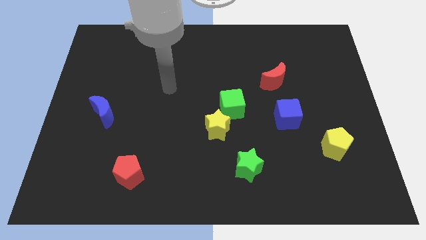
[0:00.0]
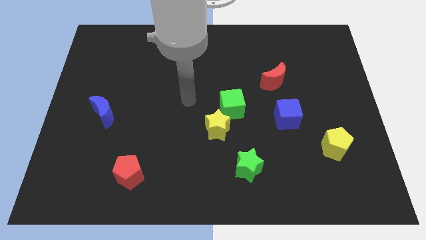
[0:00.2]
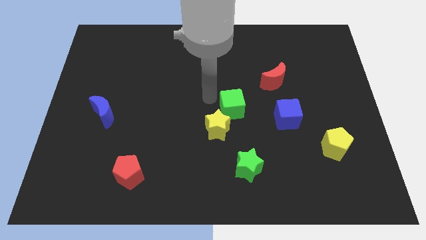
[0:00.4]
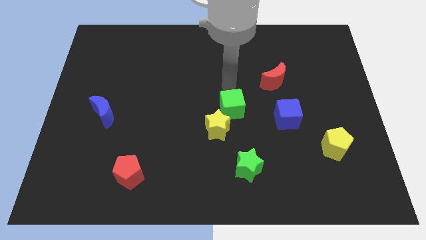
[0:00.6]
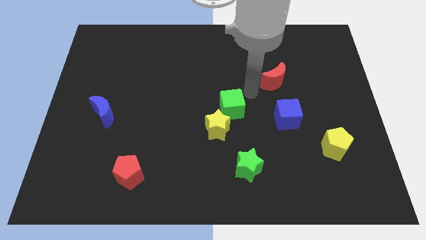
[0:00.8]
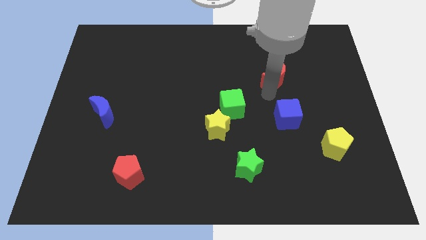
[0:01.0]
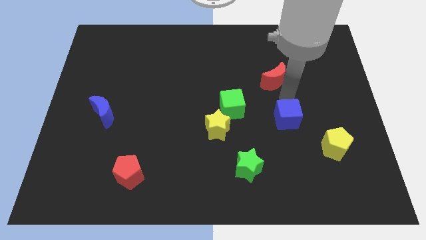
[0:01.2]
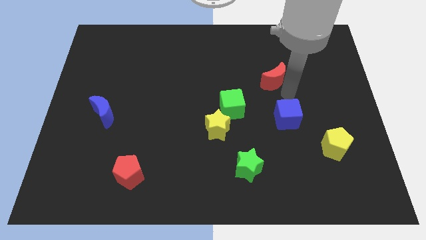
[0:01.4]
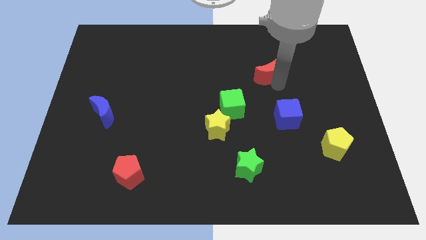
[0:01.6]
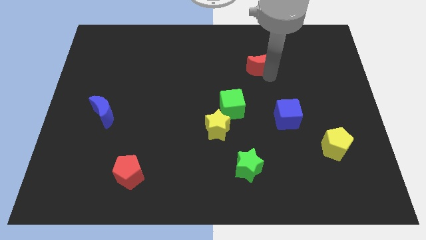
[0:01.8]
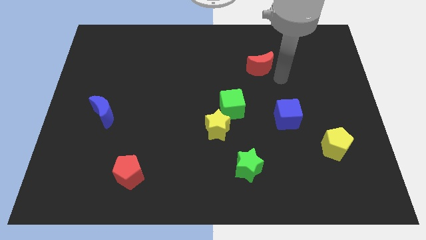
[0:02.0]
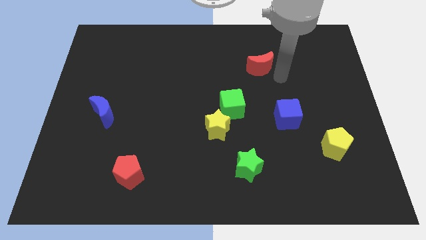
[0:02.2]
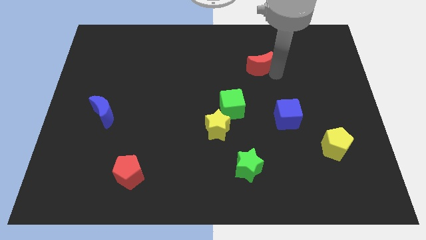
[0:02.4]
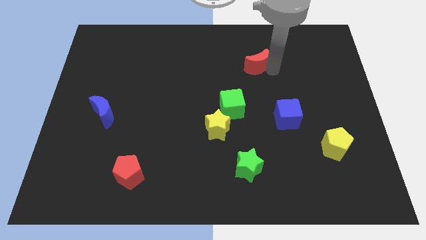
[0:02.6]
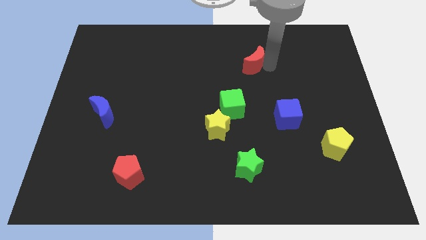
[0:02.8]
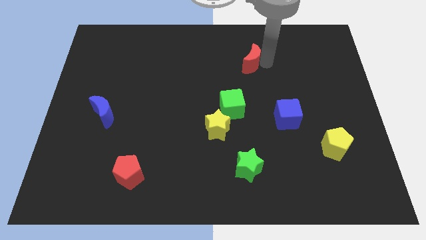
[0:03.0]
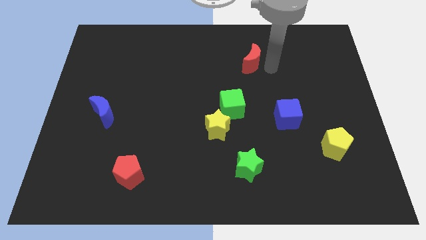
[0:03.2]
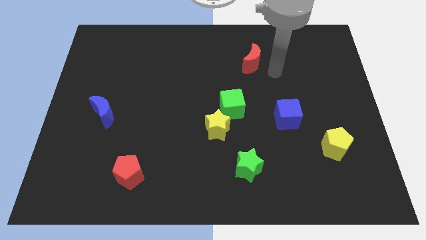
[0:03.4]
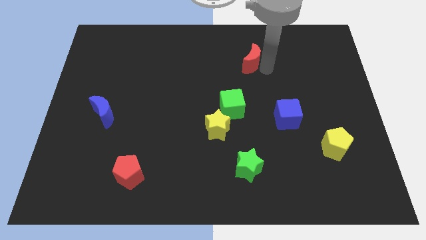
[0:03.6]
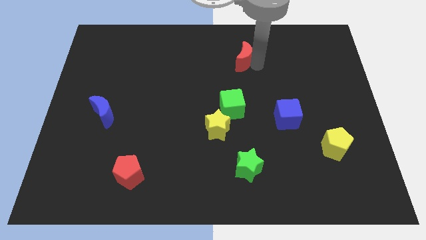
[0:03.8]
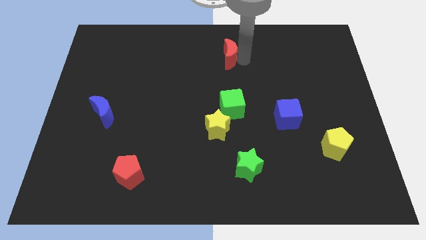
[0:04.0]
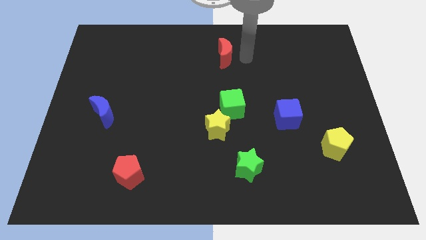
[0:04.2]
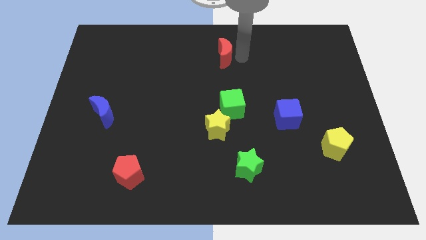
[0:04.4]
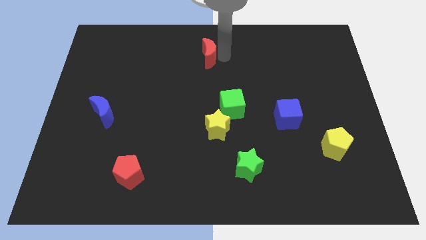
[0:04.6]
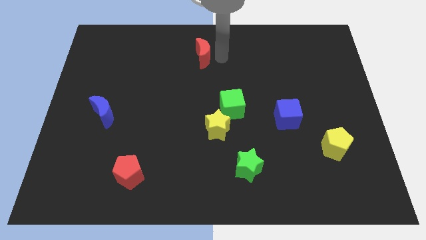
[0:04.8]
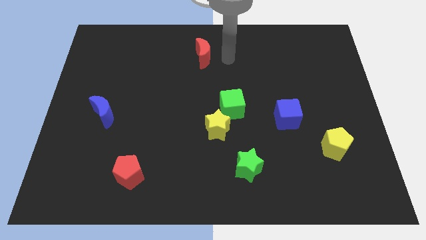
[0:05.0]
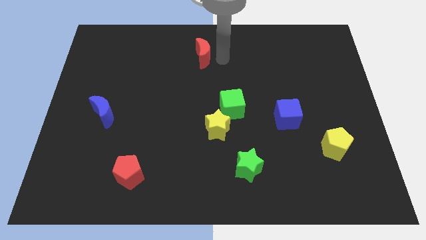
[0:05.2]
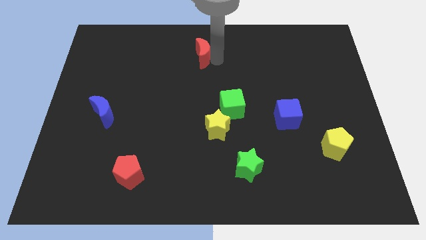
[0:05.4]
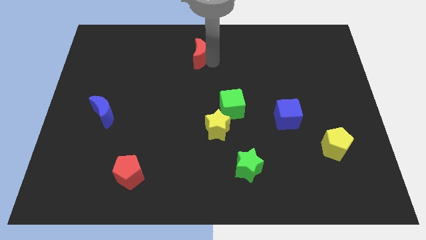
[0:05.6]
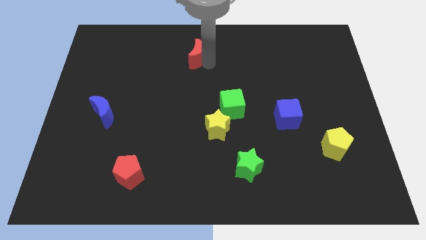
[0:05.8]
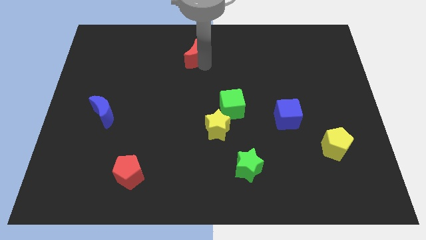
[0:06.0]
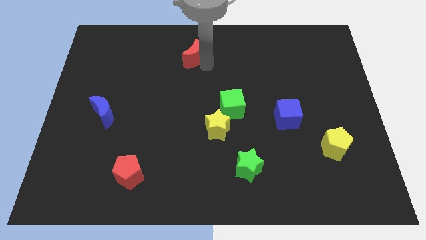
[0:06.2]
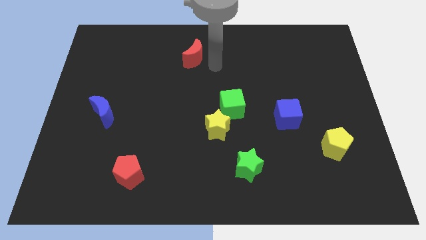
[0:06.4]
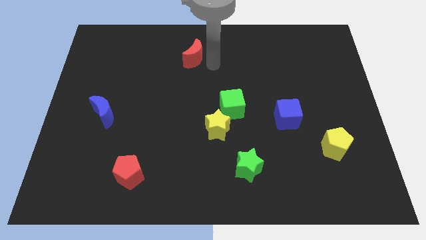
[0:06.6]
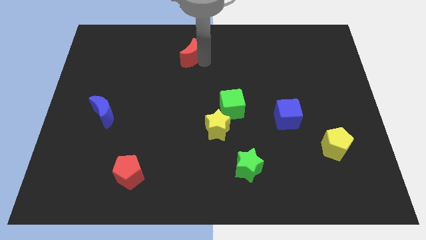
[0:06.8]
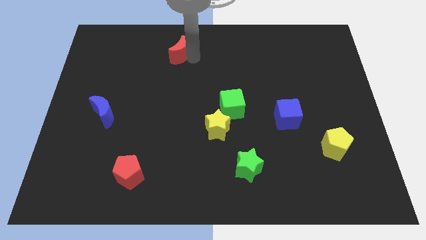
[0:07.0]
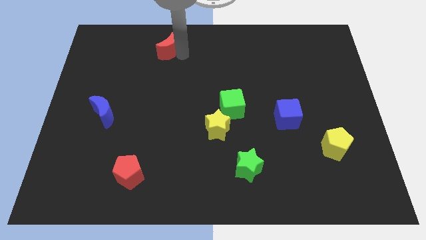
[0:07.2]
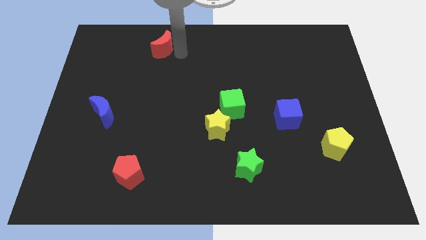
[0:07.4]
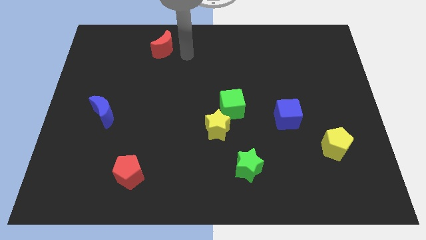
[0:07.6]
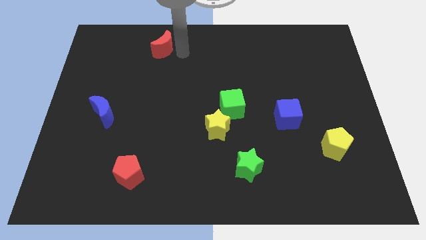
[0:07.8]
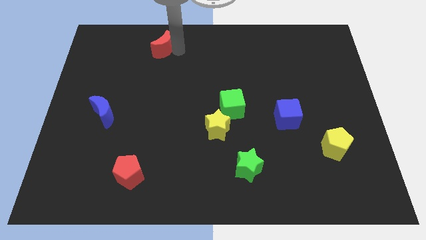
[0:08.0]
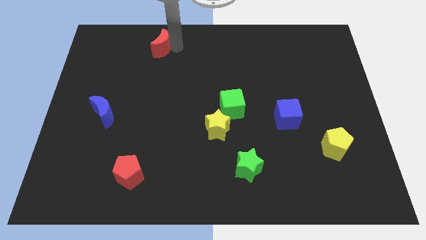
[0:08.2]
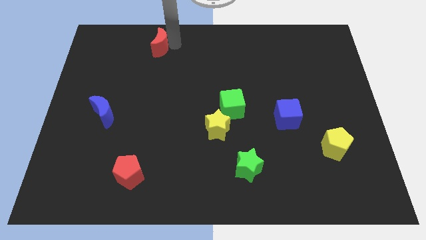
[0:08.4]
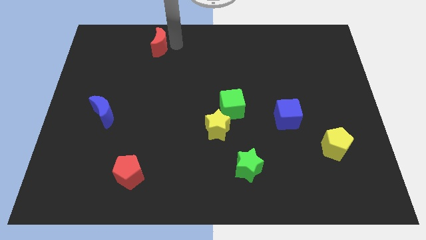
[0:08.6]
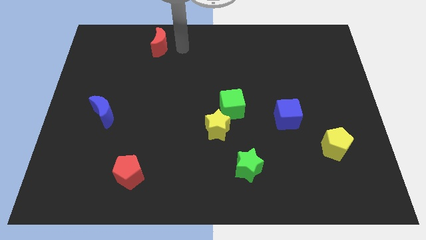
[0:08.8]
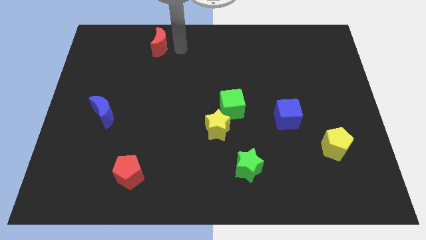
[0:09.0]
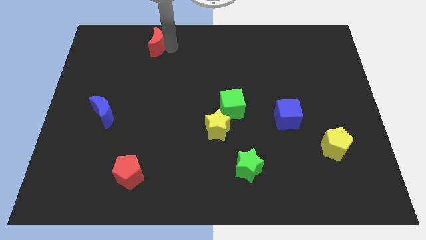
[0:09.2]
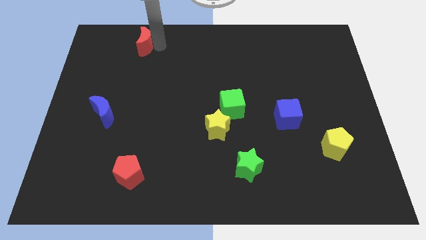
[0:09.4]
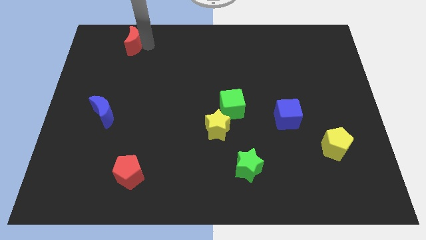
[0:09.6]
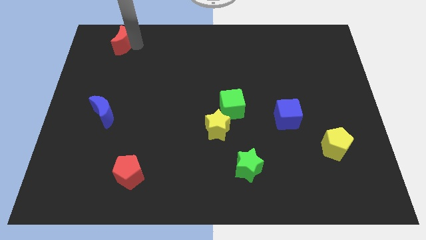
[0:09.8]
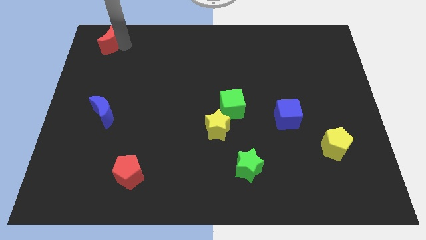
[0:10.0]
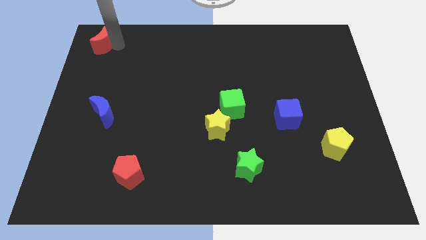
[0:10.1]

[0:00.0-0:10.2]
put the red moon to the top left corner

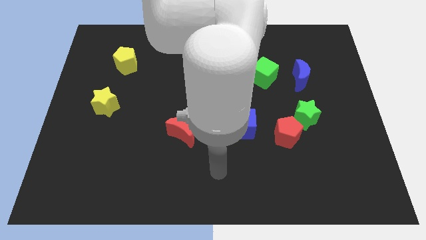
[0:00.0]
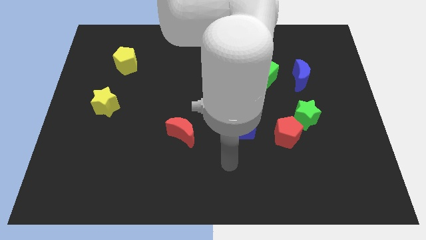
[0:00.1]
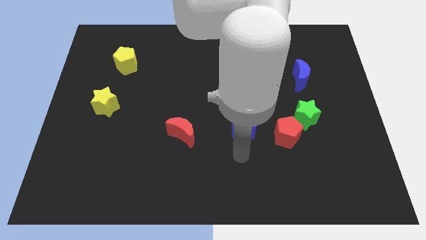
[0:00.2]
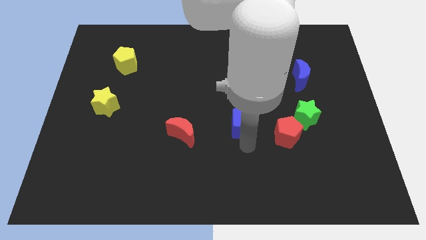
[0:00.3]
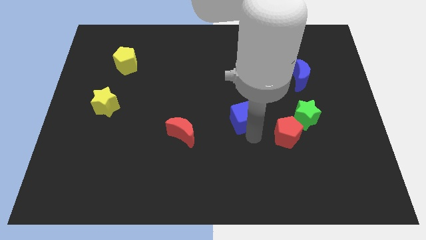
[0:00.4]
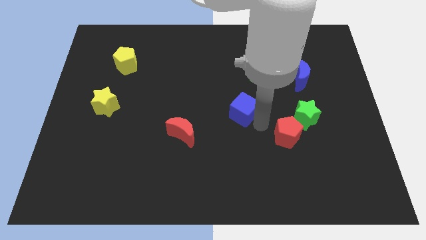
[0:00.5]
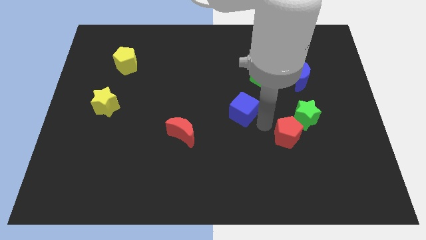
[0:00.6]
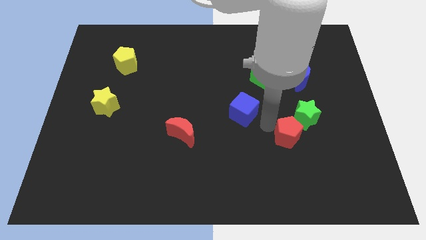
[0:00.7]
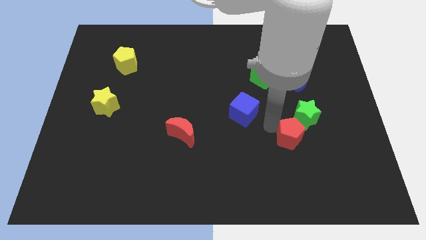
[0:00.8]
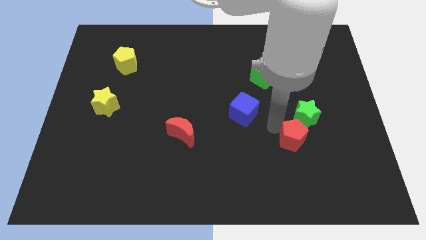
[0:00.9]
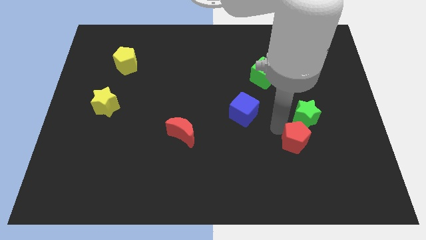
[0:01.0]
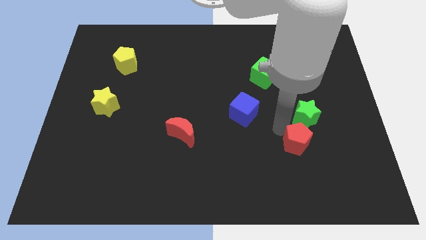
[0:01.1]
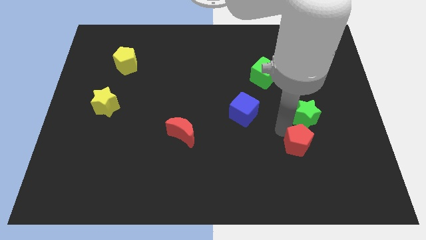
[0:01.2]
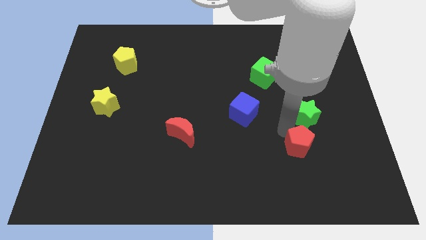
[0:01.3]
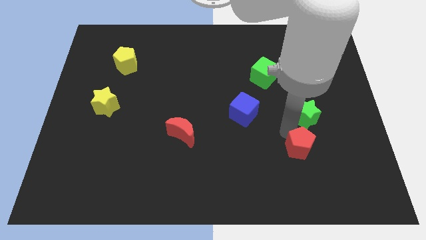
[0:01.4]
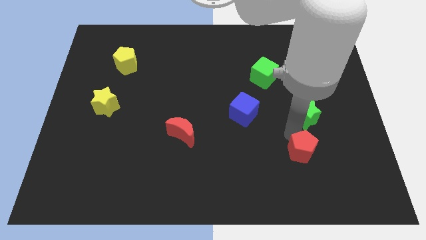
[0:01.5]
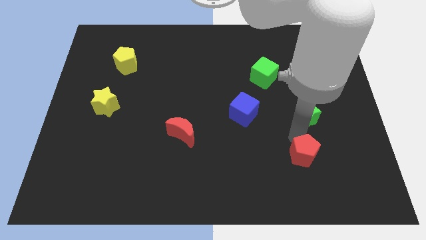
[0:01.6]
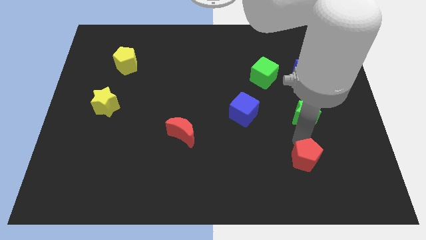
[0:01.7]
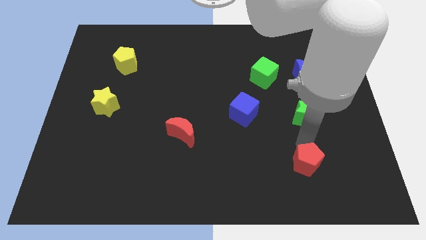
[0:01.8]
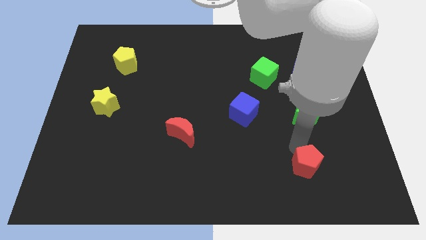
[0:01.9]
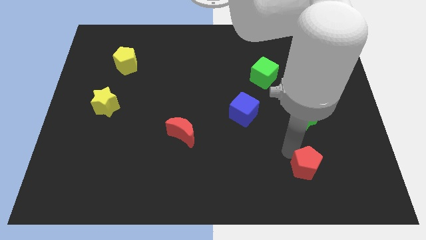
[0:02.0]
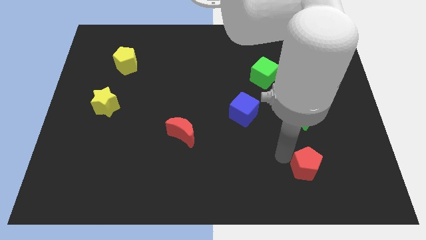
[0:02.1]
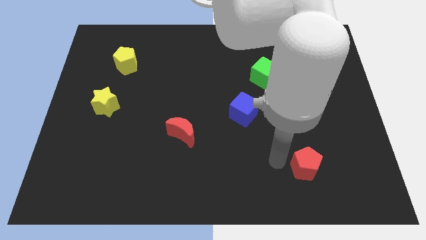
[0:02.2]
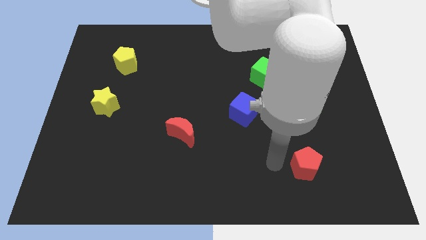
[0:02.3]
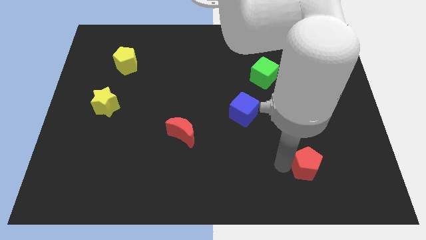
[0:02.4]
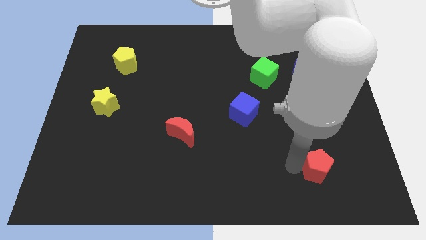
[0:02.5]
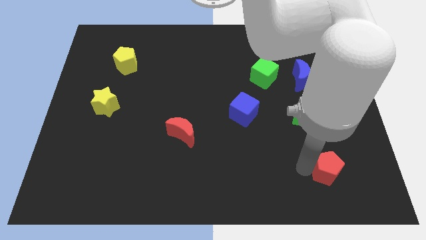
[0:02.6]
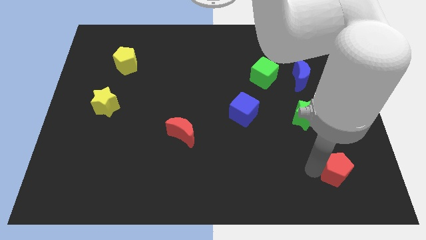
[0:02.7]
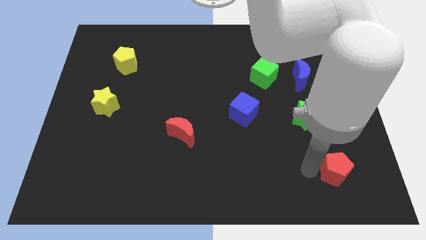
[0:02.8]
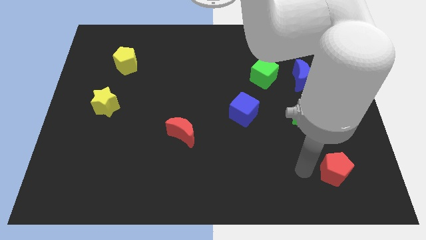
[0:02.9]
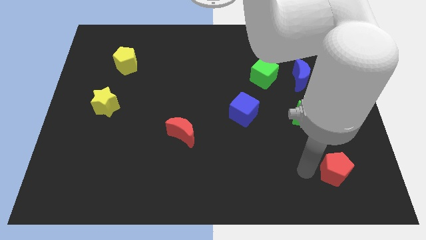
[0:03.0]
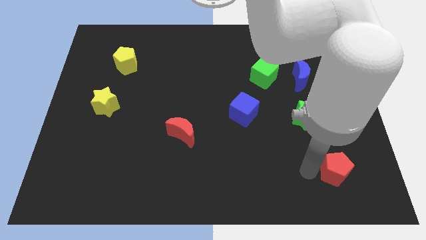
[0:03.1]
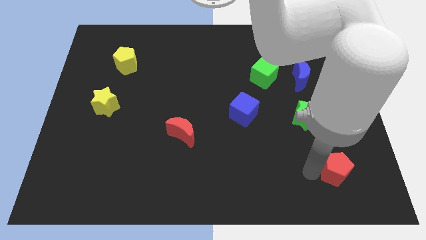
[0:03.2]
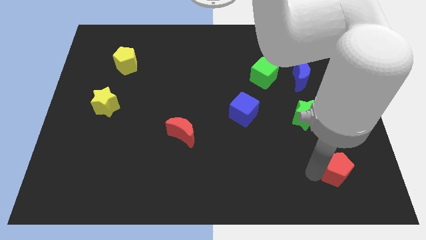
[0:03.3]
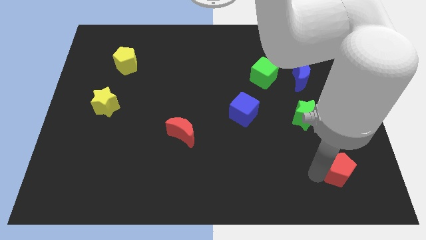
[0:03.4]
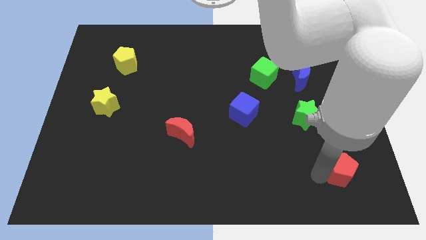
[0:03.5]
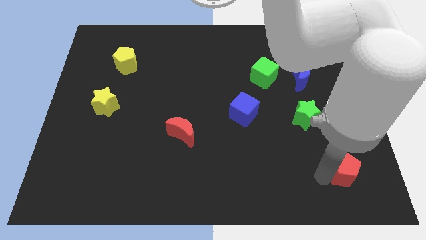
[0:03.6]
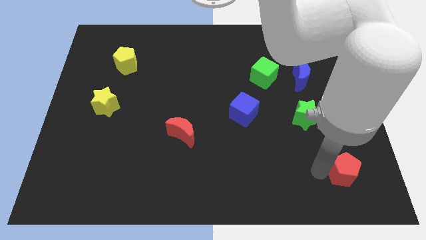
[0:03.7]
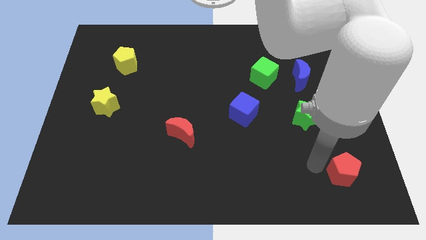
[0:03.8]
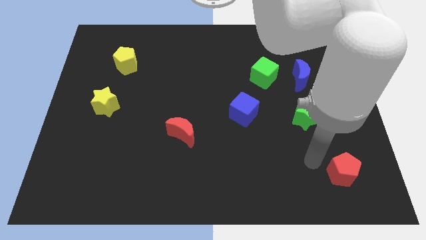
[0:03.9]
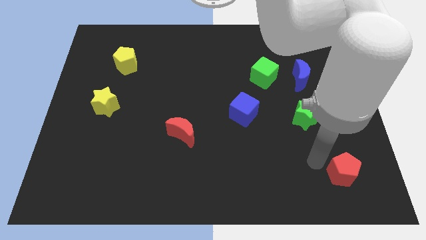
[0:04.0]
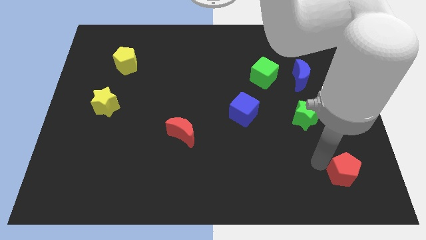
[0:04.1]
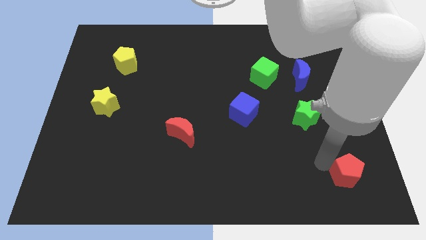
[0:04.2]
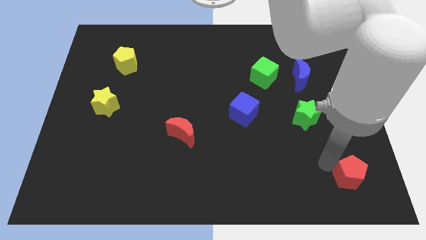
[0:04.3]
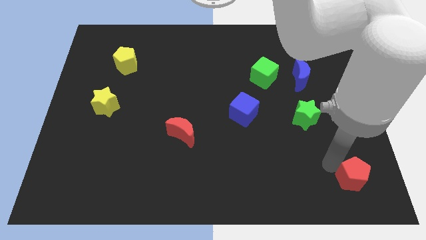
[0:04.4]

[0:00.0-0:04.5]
move the red pentagon to the bottom right of the board
